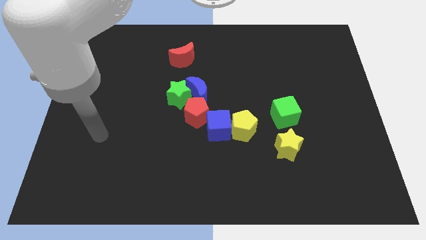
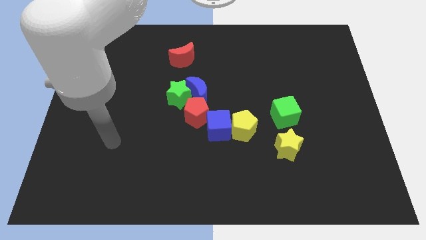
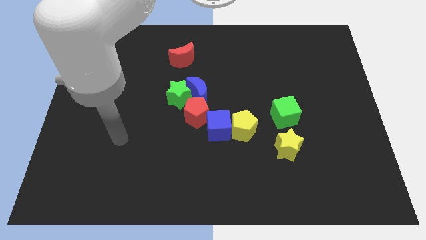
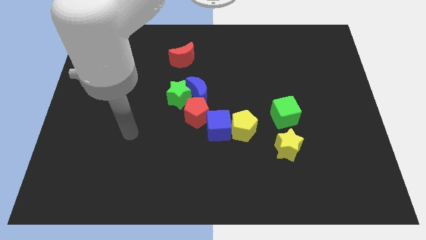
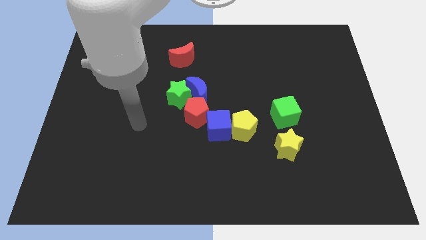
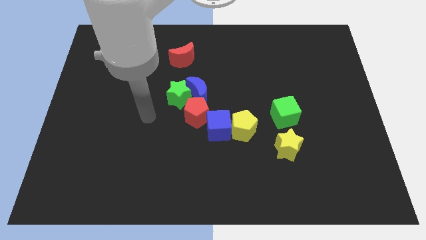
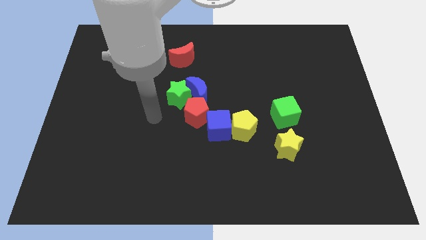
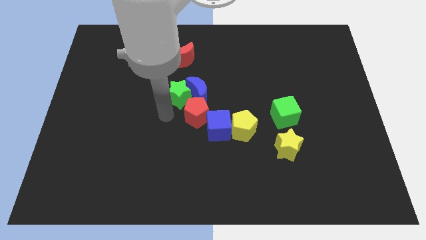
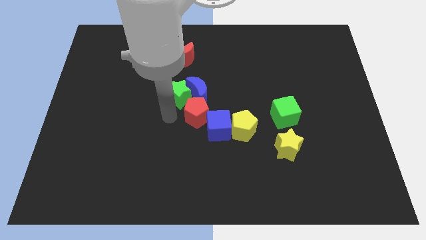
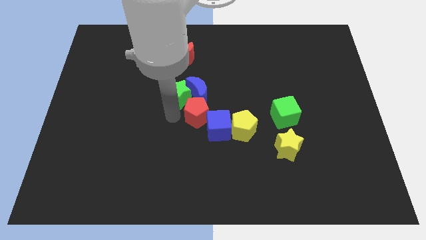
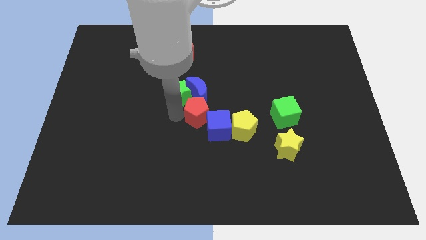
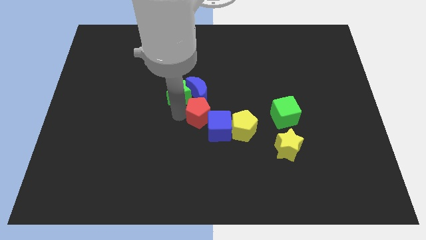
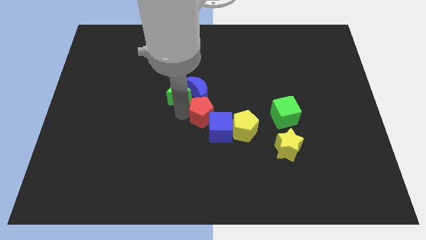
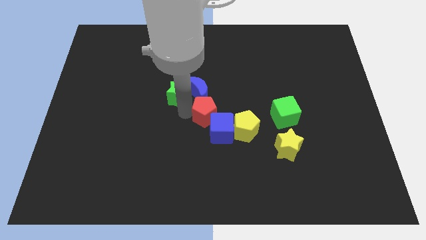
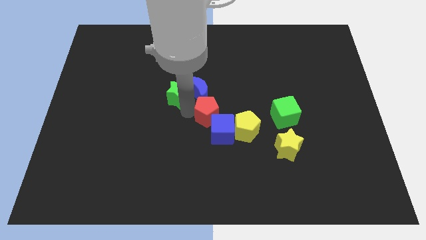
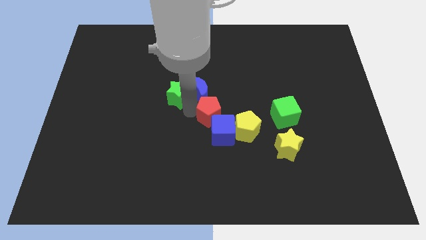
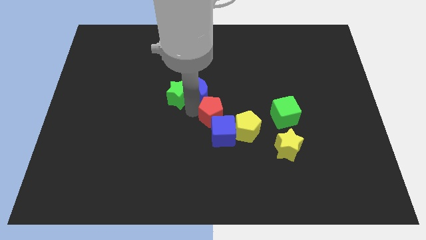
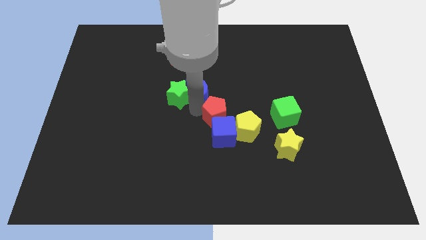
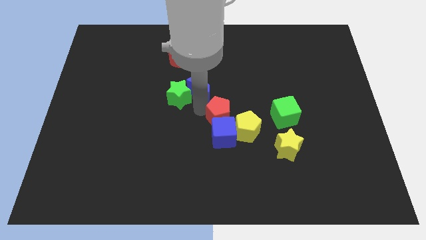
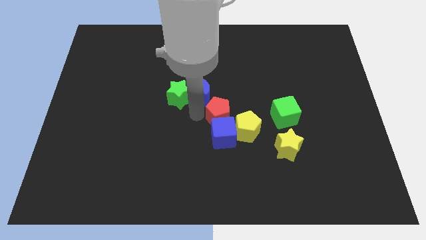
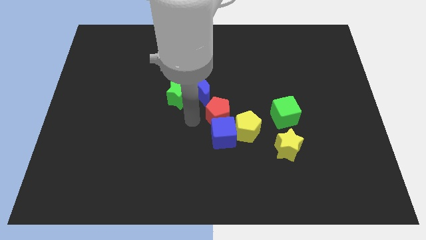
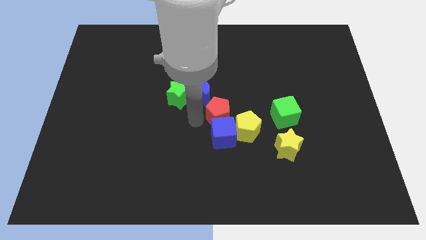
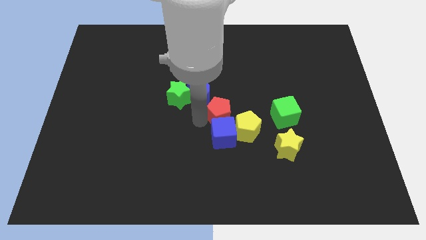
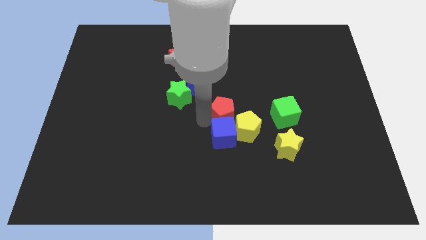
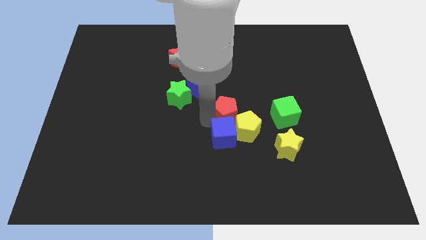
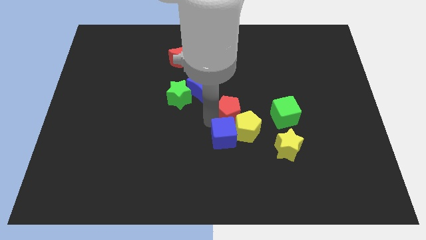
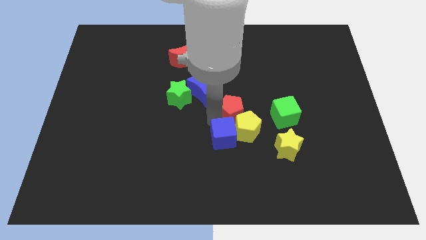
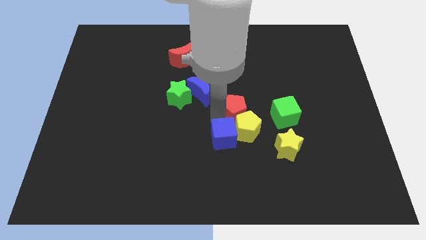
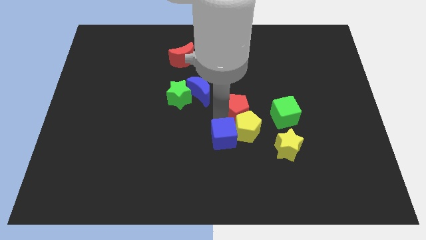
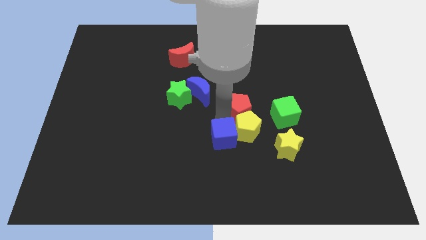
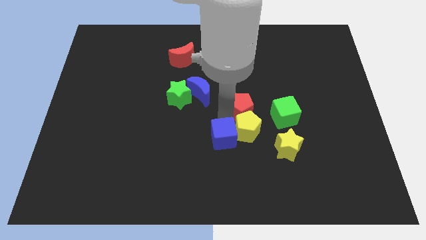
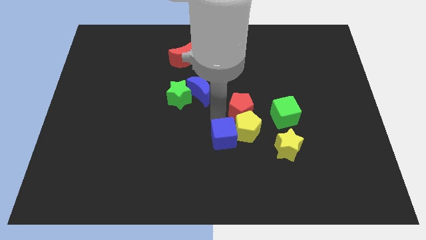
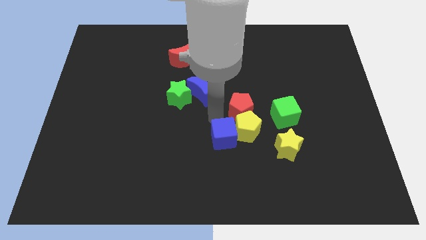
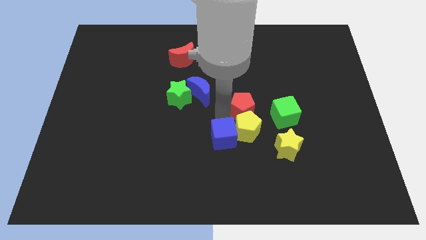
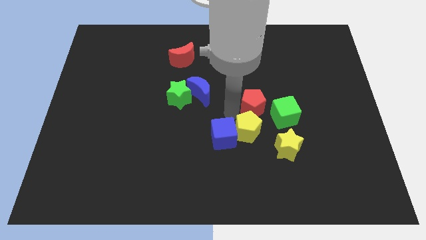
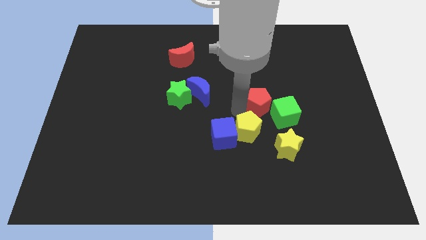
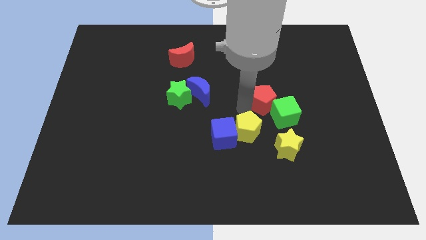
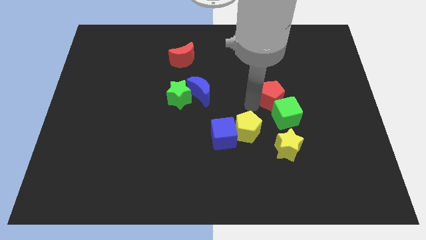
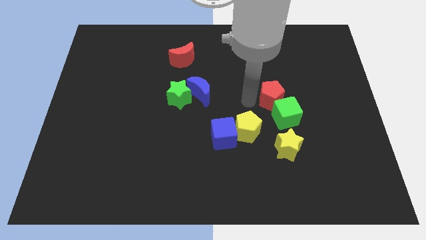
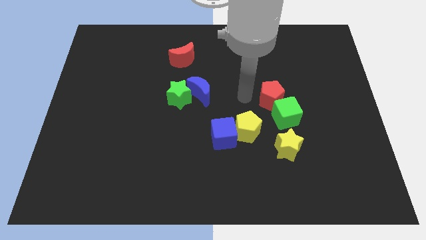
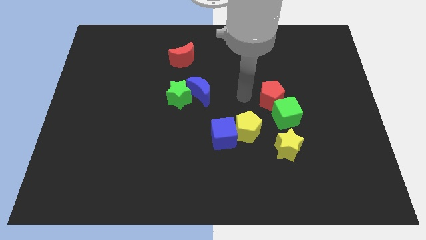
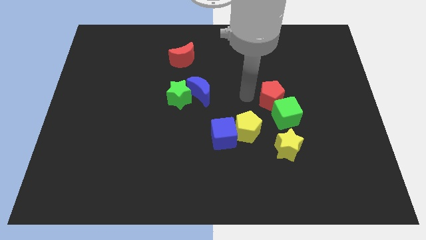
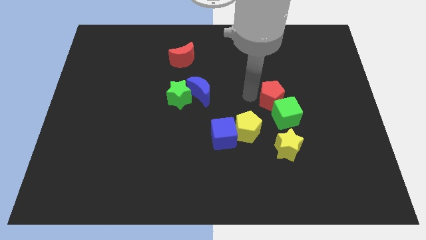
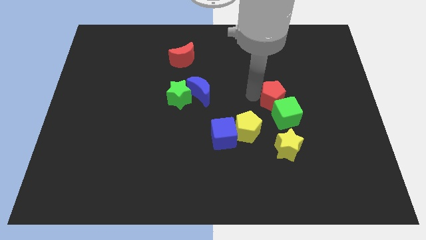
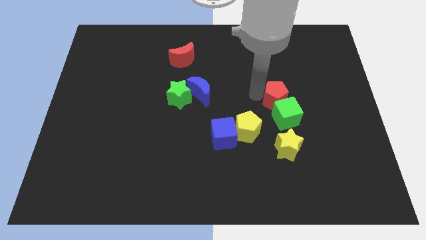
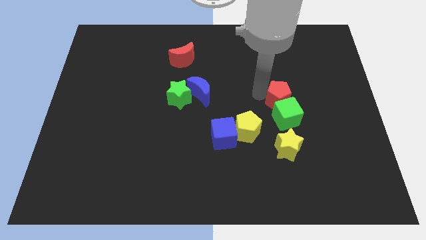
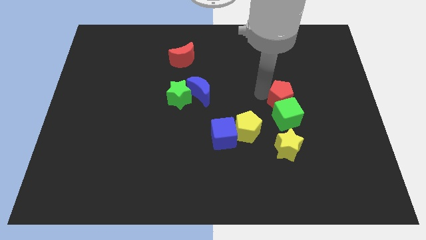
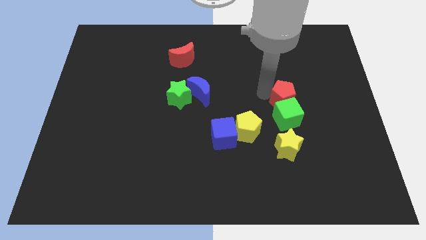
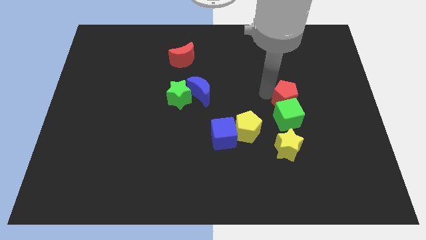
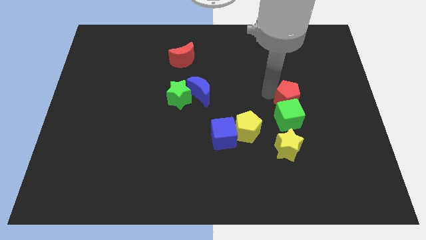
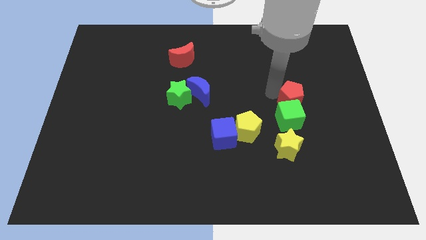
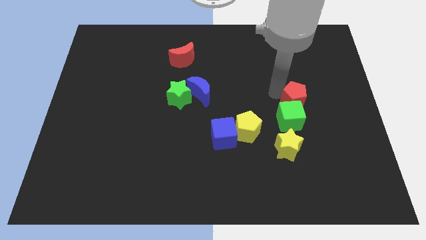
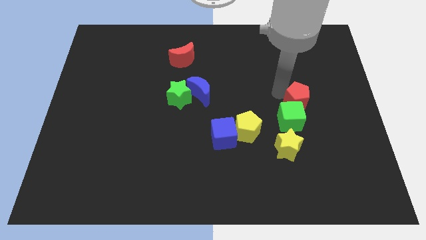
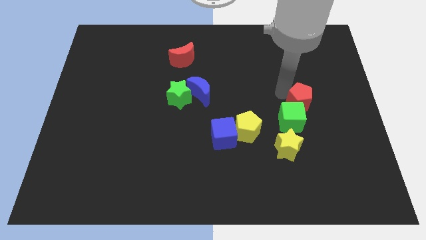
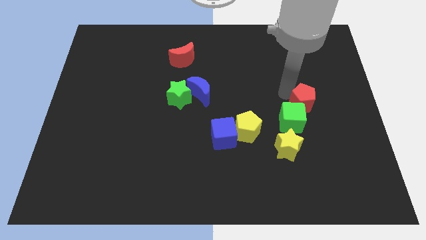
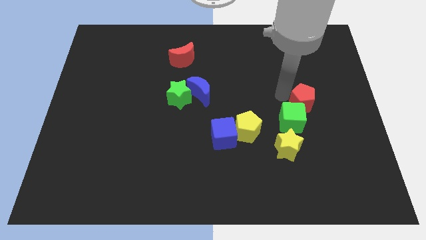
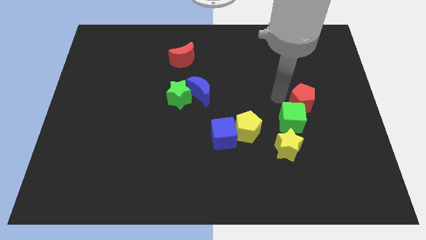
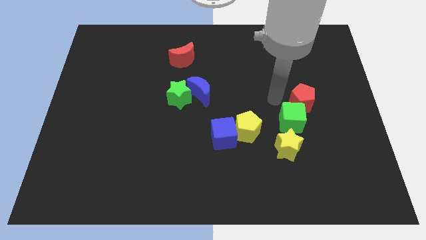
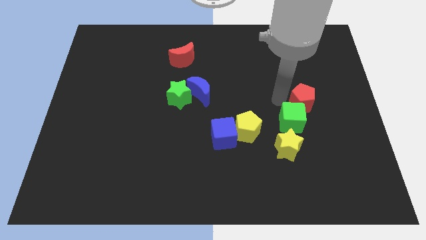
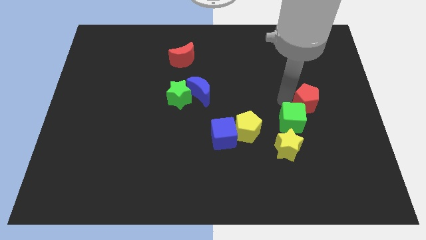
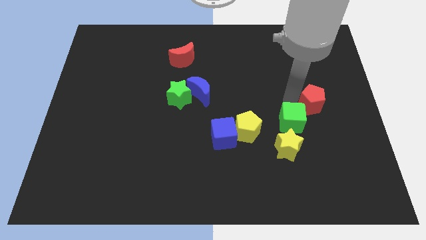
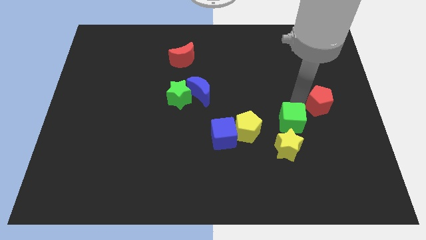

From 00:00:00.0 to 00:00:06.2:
put the red pentagon to the right side of the board
